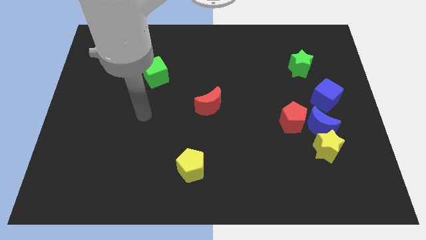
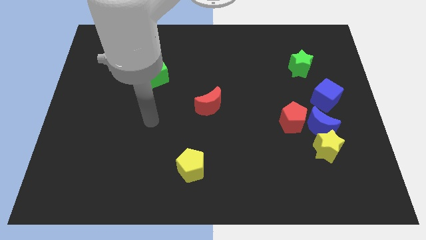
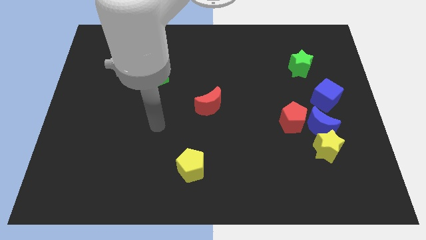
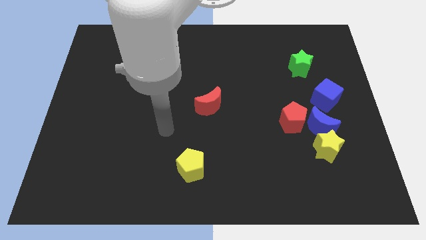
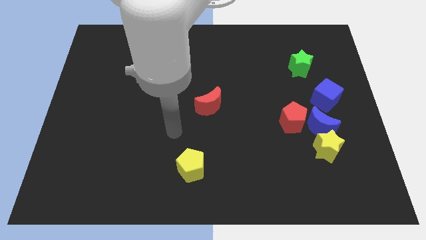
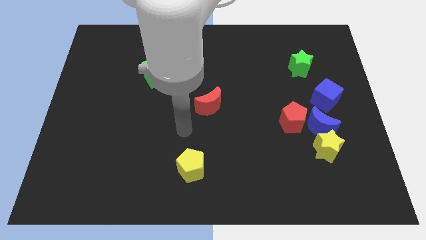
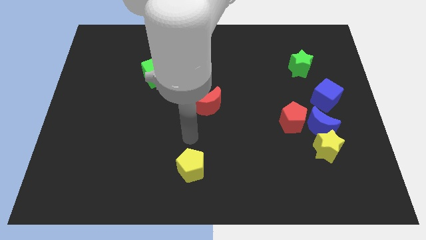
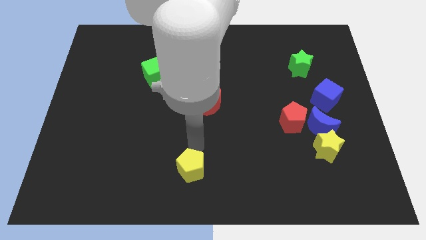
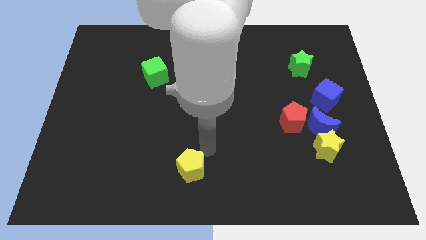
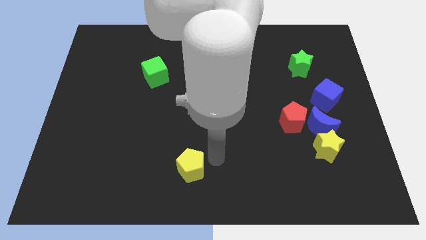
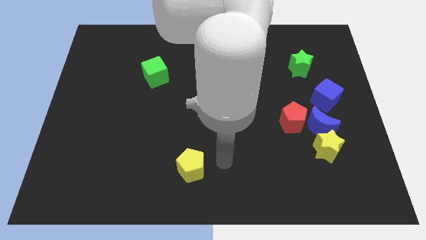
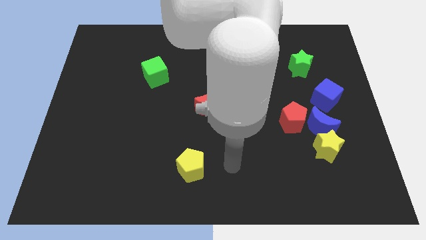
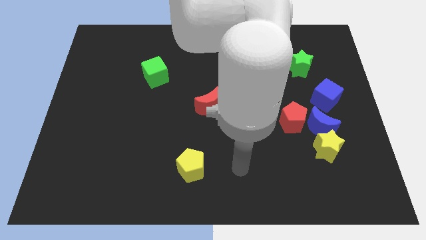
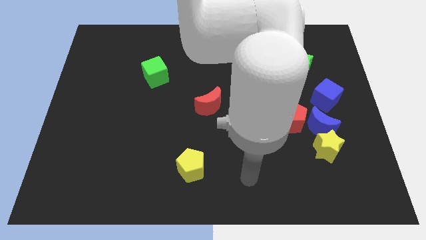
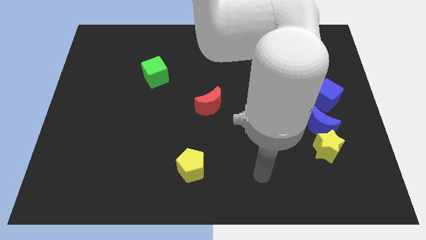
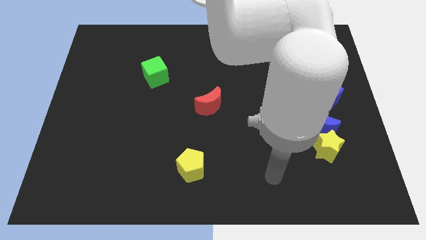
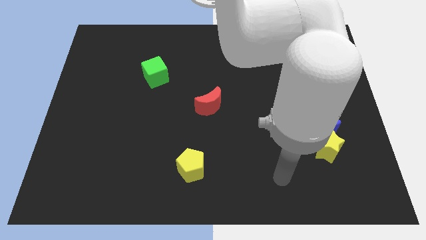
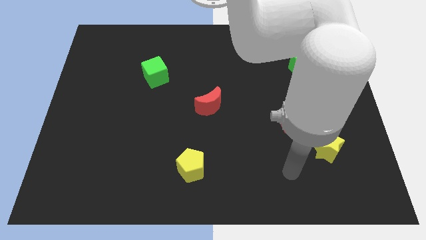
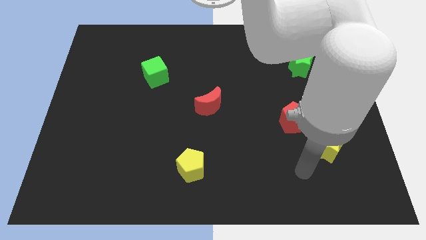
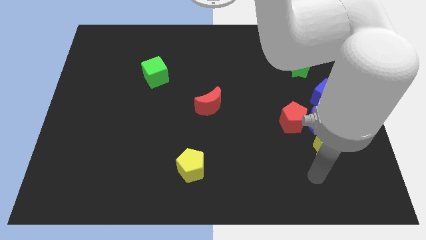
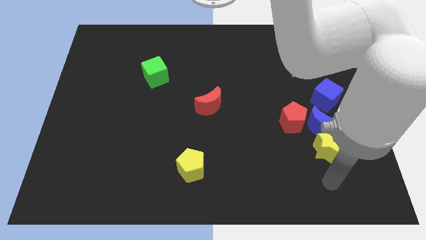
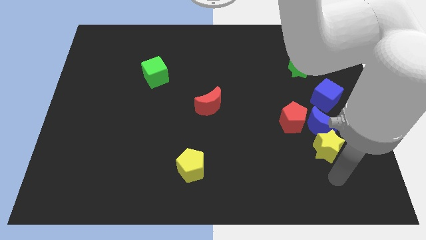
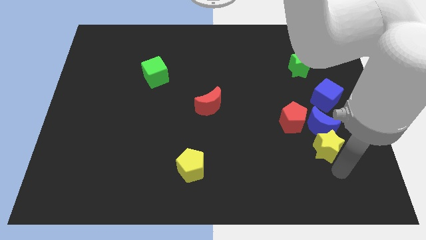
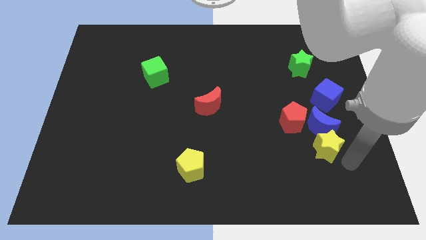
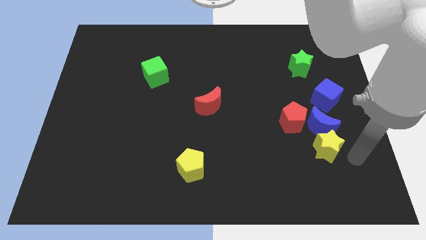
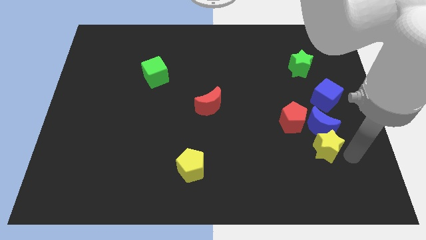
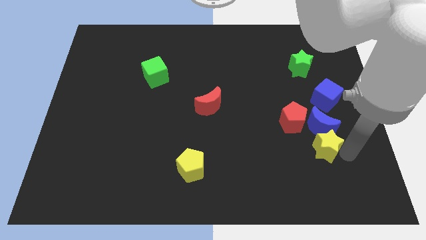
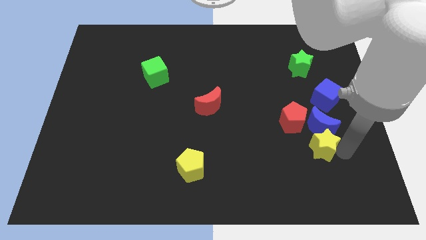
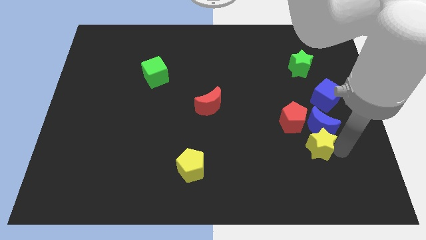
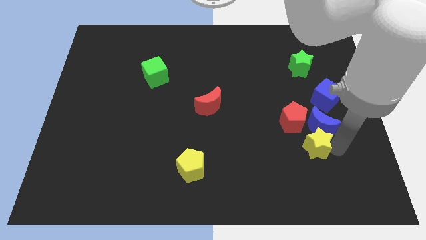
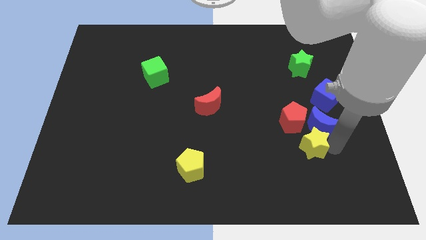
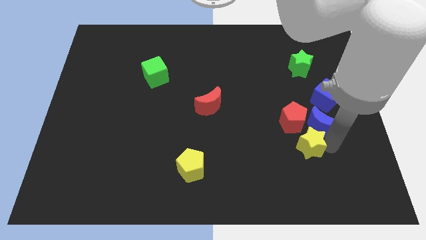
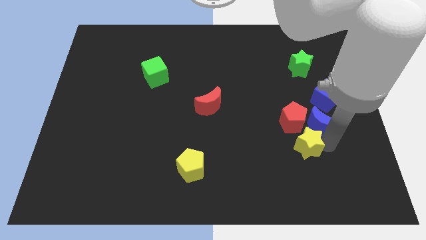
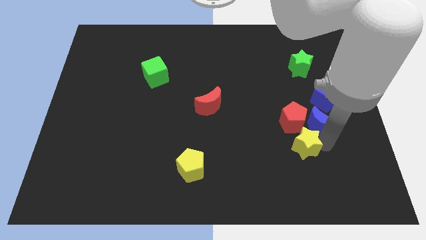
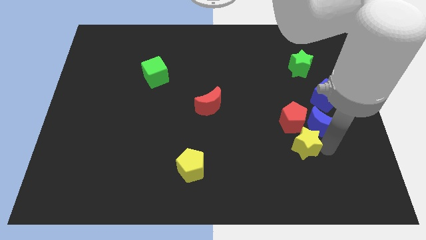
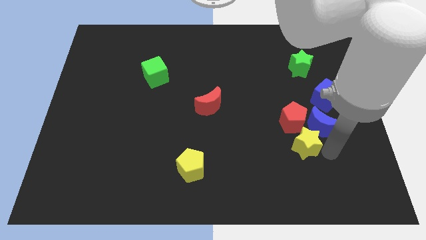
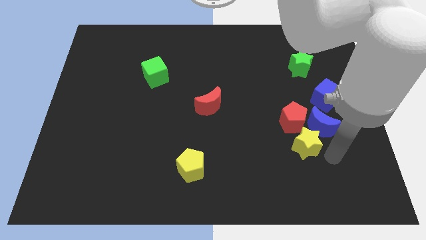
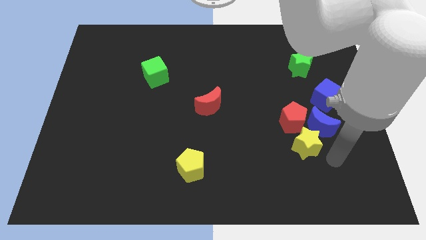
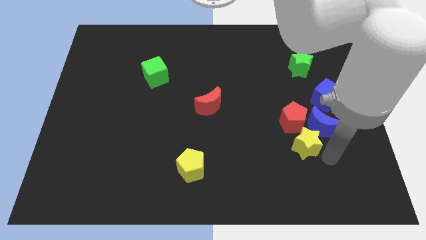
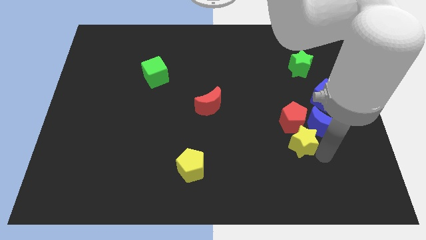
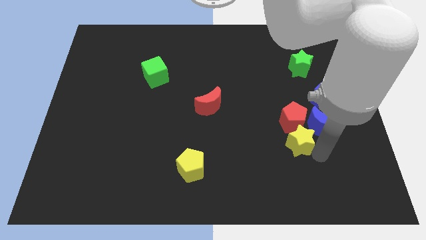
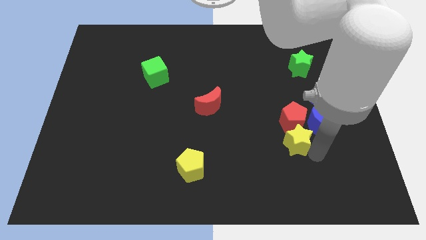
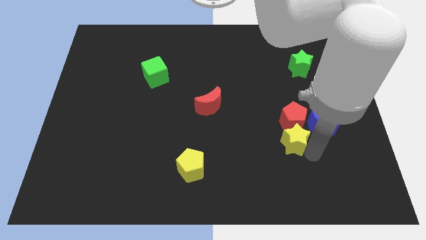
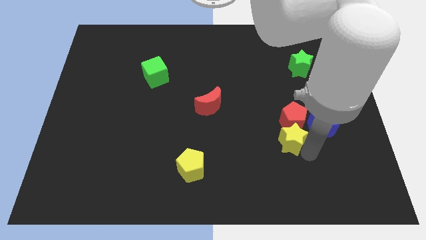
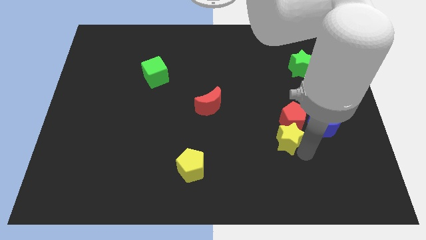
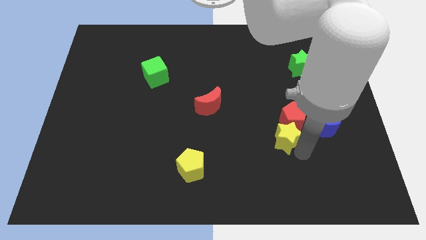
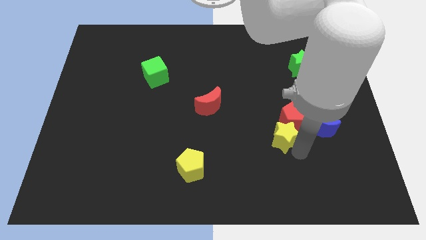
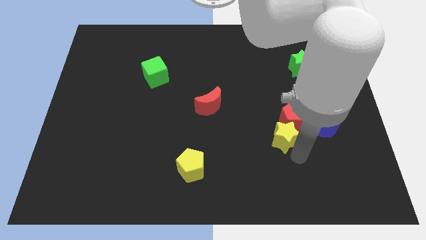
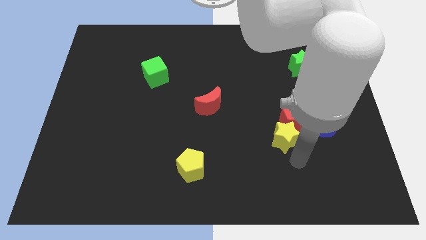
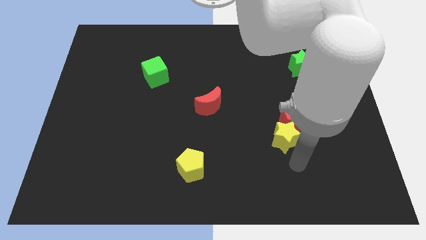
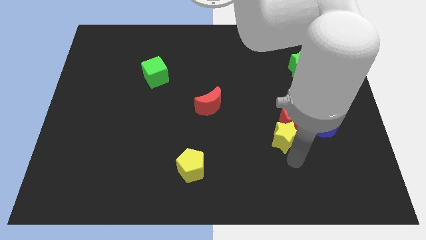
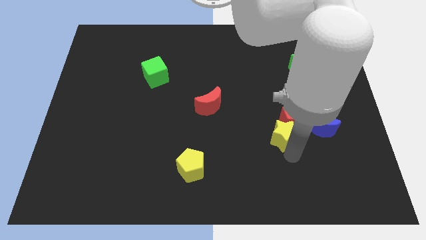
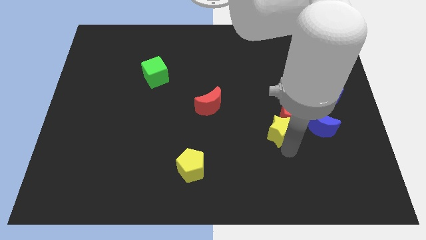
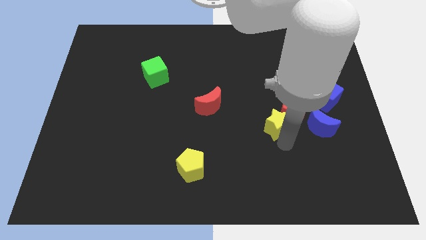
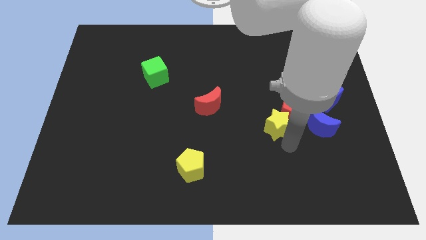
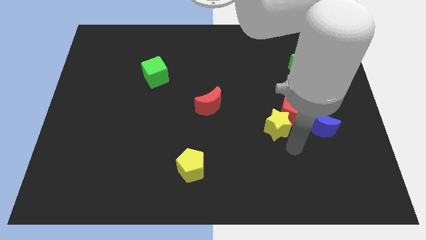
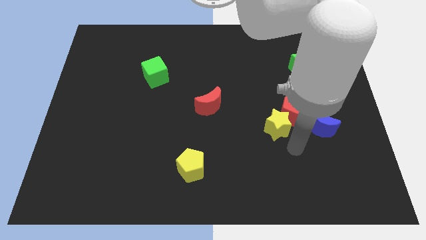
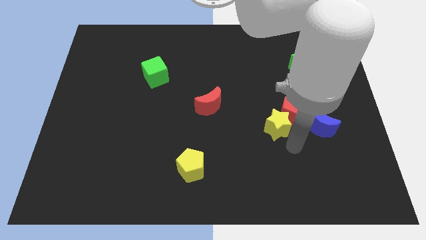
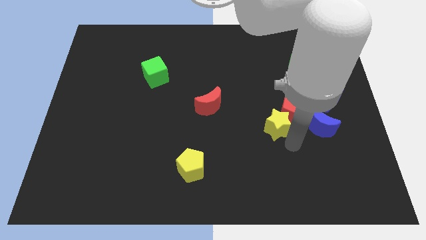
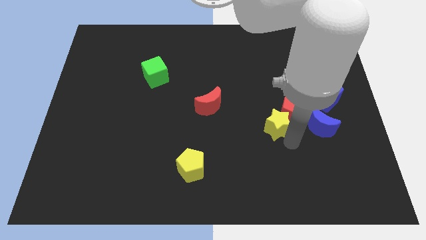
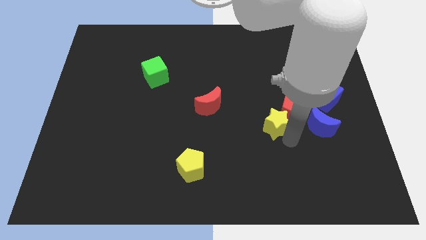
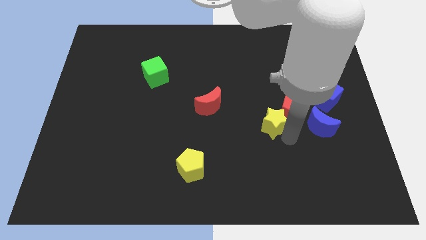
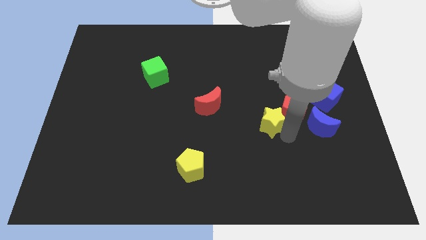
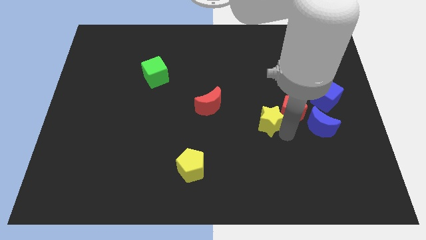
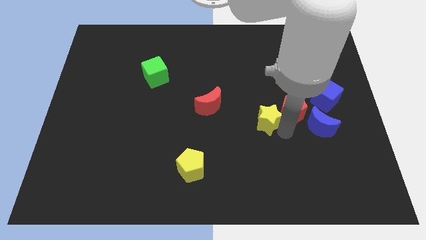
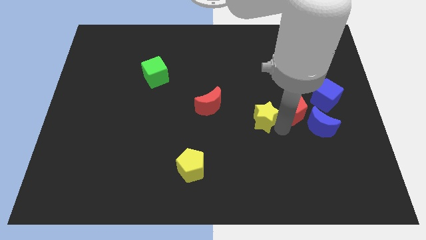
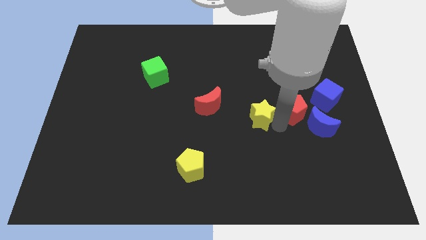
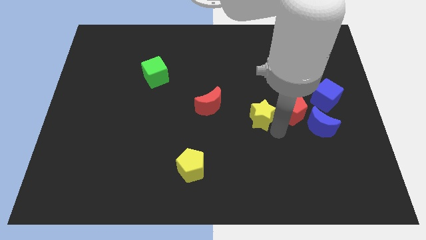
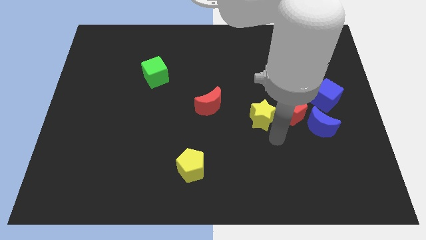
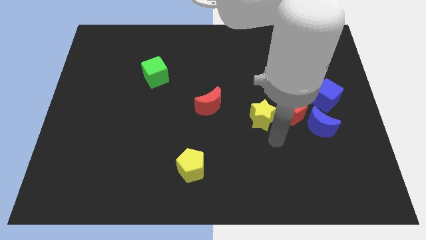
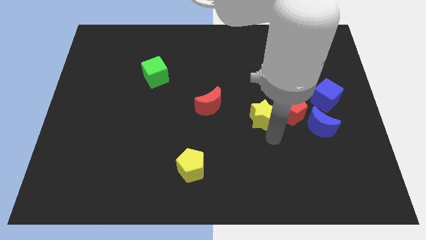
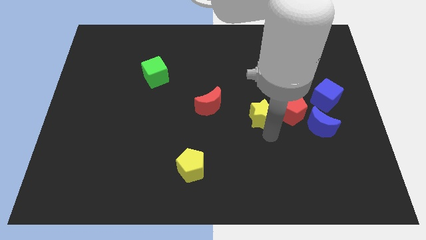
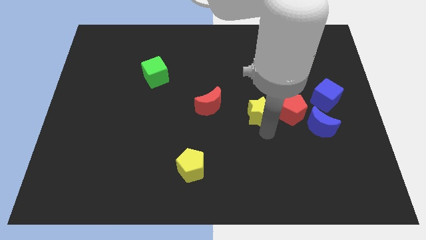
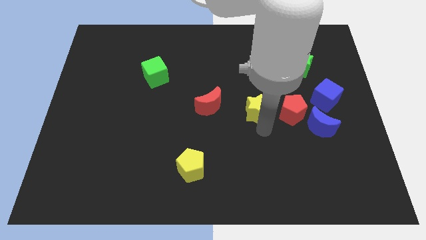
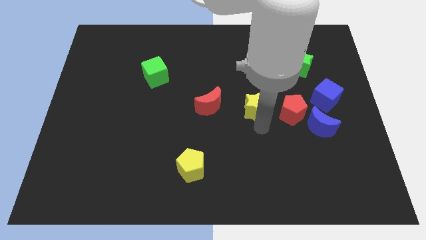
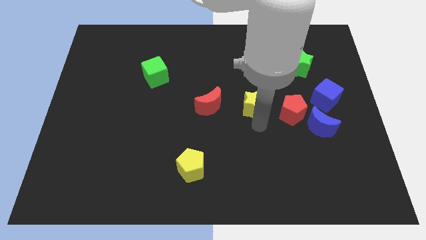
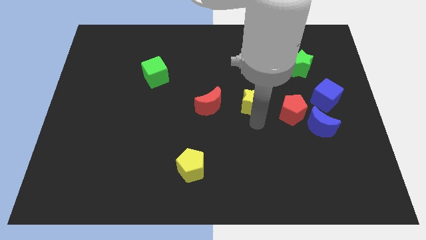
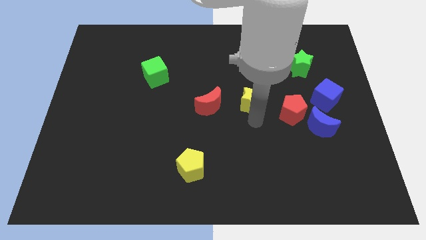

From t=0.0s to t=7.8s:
slide the yellow star diagonally up and to the left

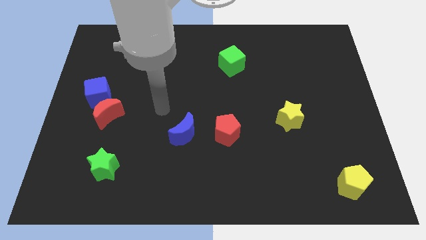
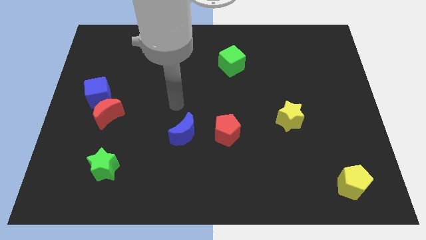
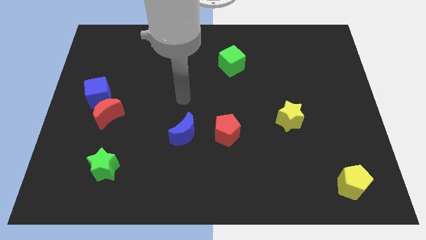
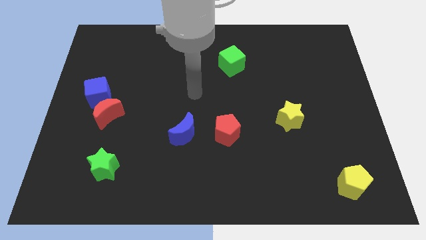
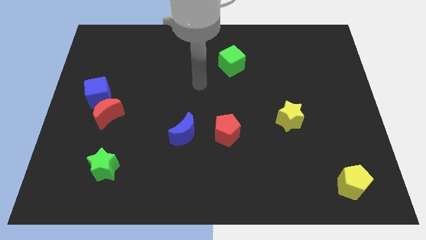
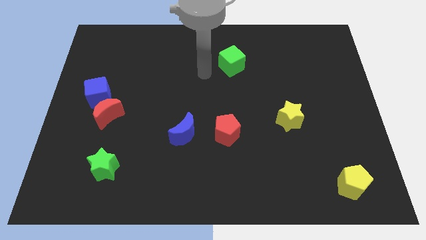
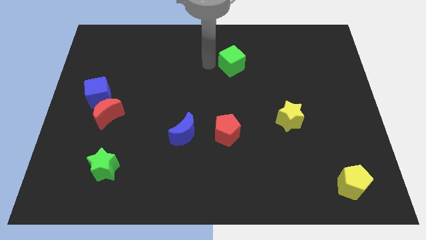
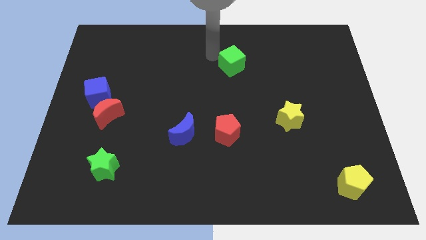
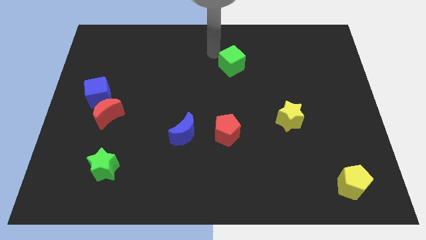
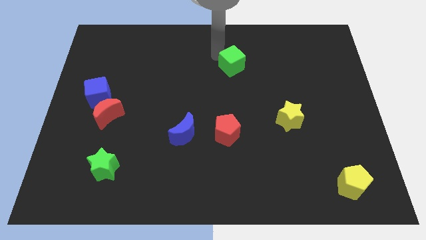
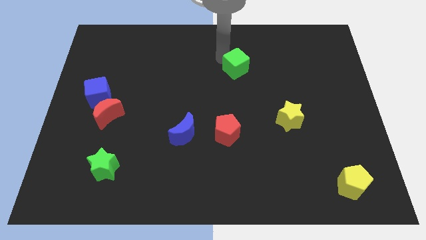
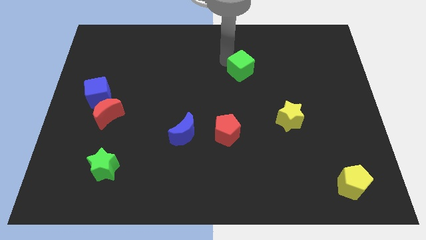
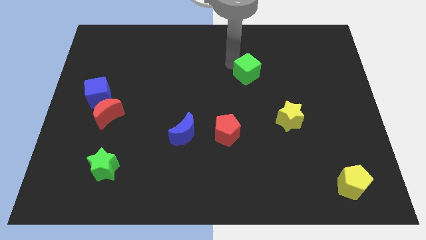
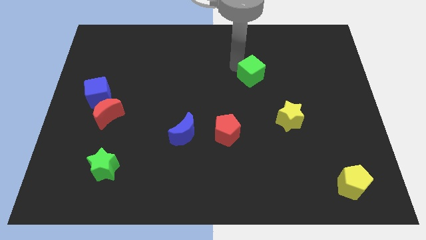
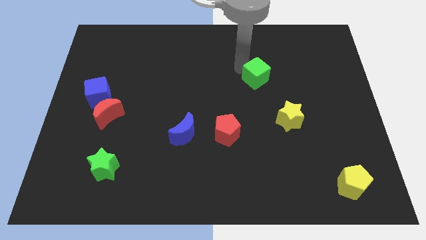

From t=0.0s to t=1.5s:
move the green cube down and then right a bit
